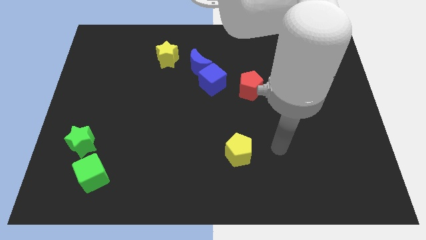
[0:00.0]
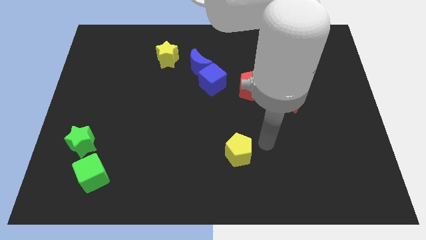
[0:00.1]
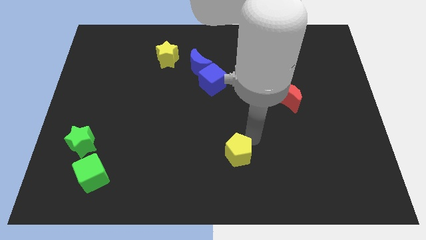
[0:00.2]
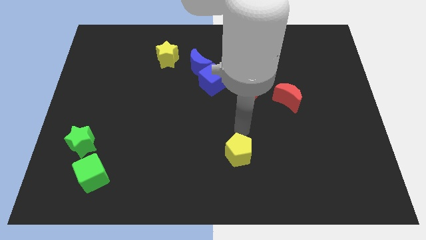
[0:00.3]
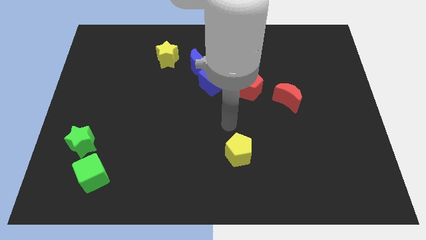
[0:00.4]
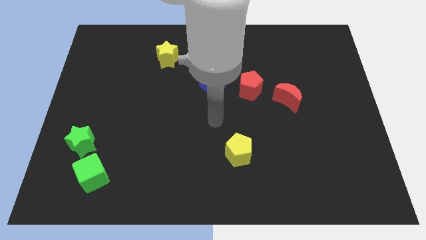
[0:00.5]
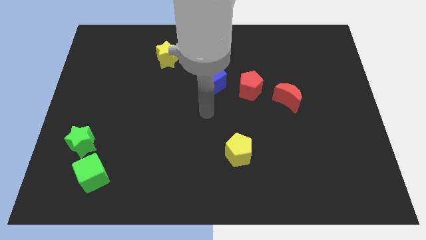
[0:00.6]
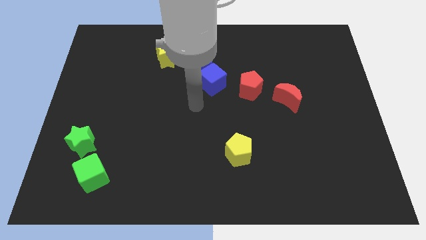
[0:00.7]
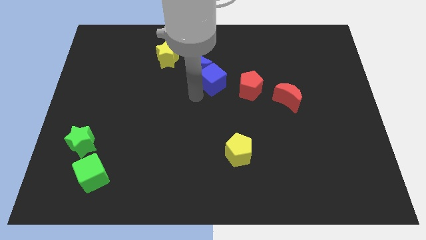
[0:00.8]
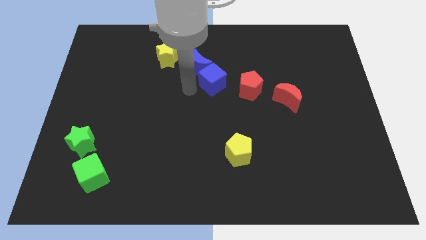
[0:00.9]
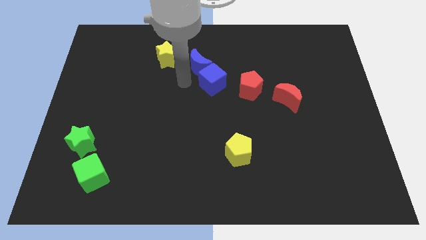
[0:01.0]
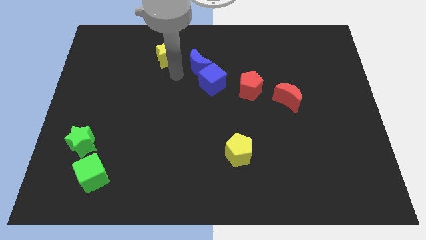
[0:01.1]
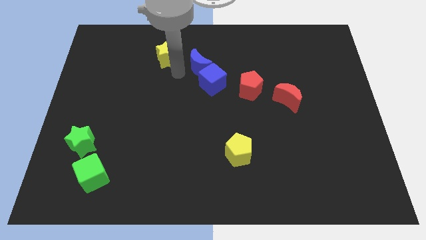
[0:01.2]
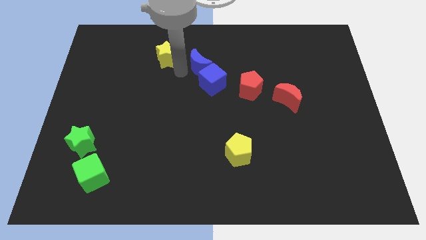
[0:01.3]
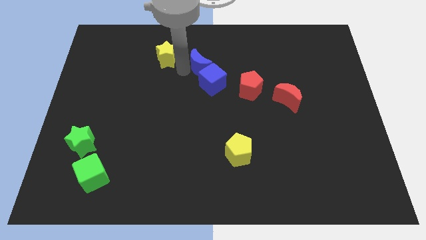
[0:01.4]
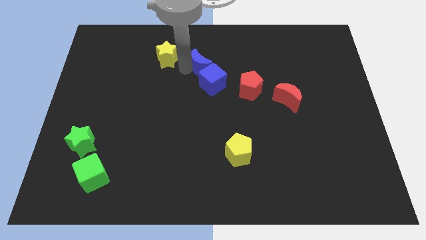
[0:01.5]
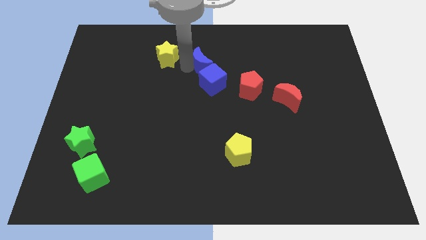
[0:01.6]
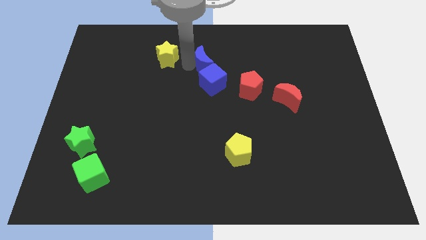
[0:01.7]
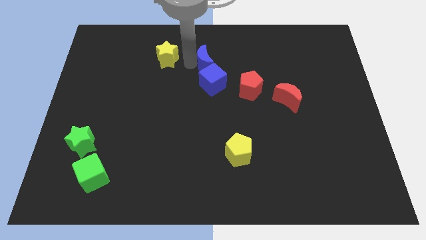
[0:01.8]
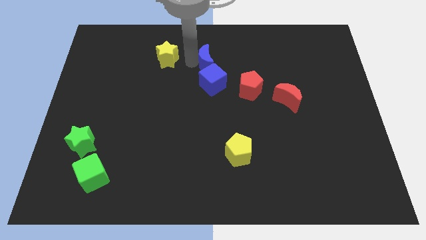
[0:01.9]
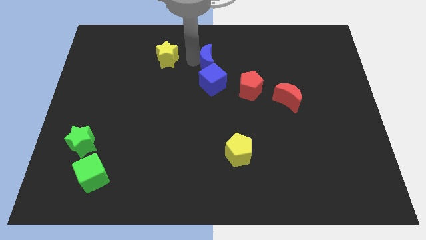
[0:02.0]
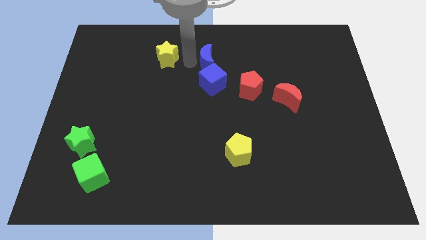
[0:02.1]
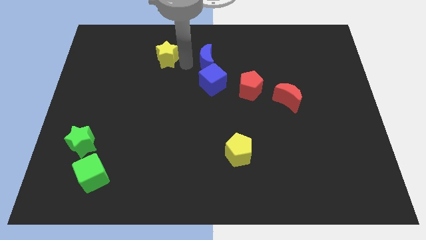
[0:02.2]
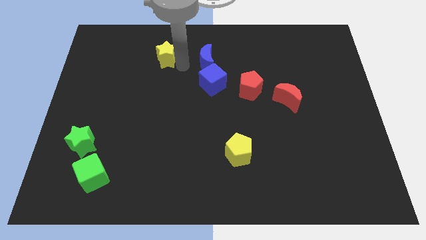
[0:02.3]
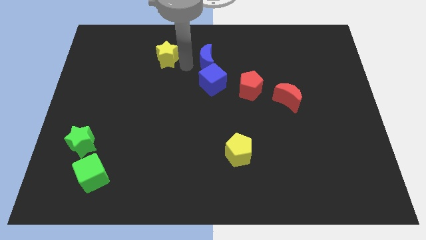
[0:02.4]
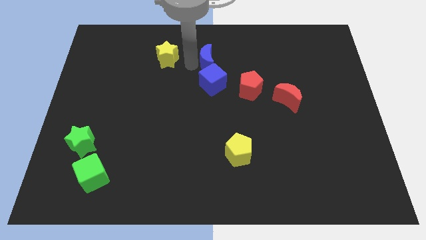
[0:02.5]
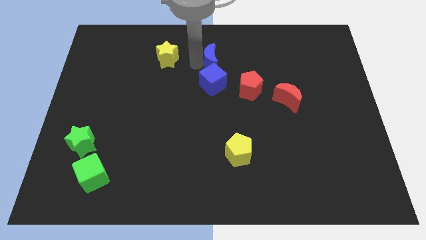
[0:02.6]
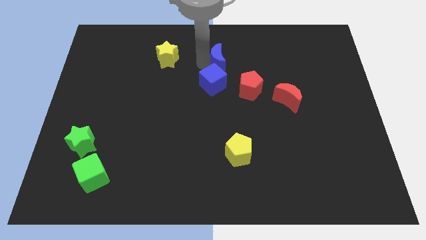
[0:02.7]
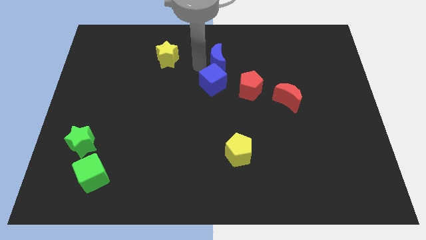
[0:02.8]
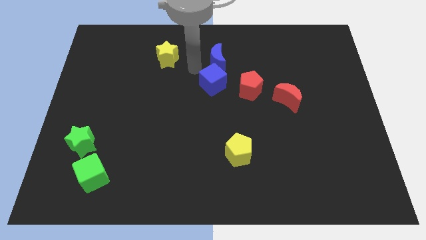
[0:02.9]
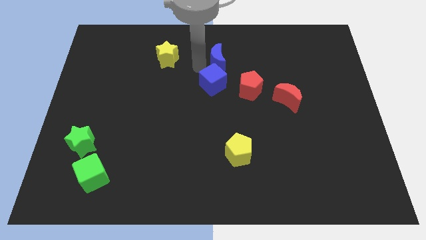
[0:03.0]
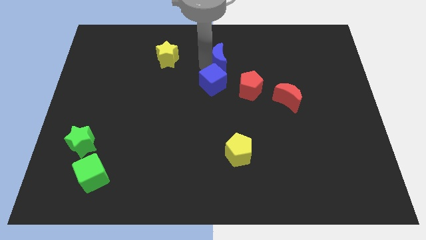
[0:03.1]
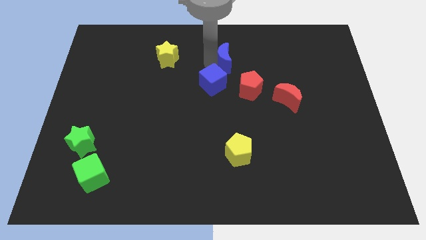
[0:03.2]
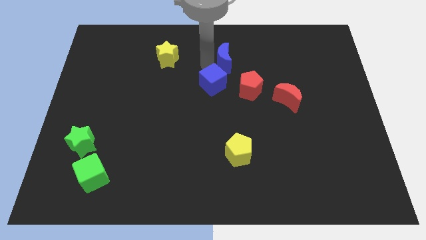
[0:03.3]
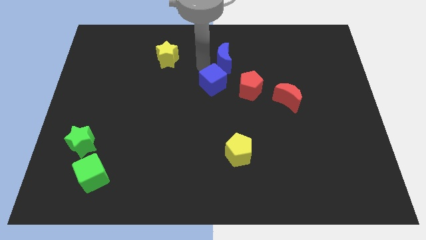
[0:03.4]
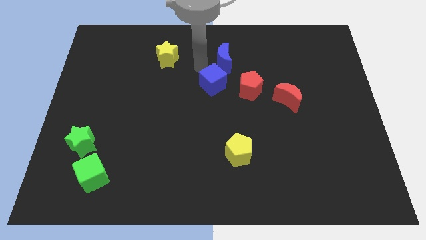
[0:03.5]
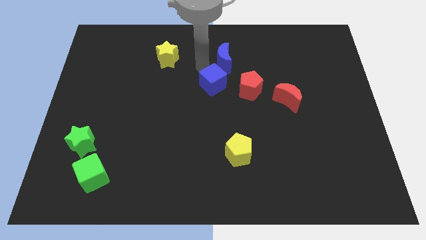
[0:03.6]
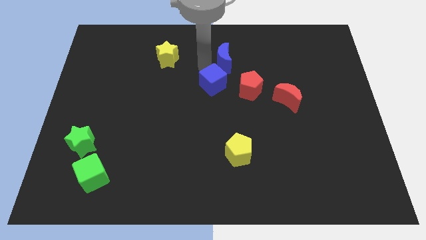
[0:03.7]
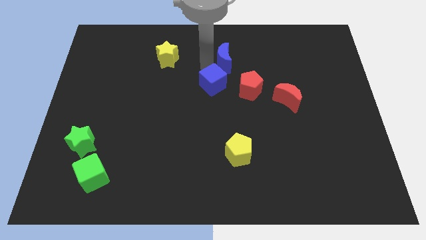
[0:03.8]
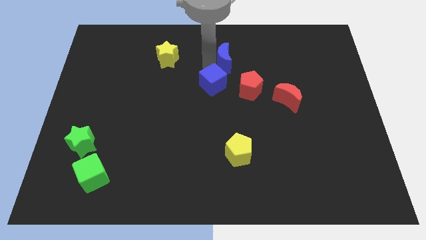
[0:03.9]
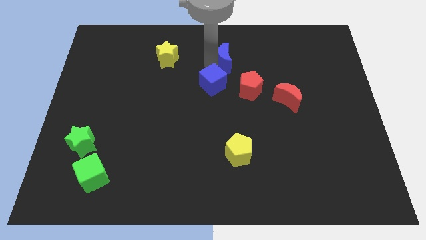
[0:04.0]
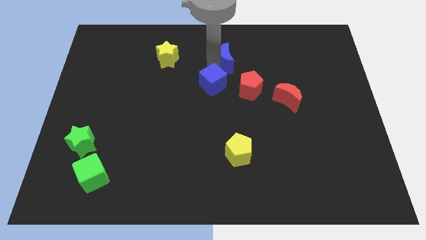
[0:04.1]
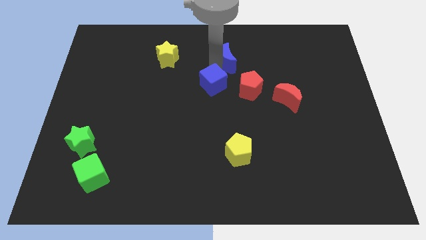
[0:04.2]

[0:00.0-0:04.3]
separate the blue moon from the blue cube and yellow star

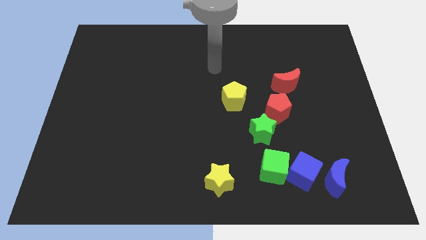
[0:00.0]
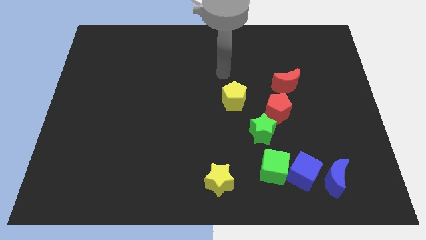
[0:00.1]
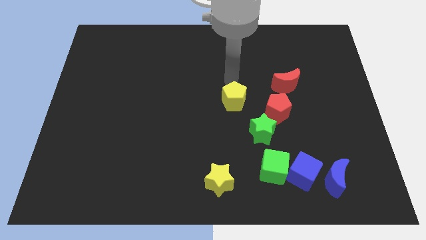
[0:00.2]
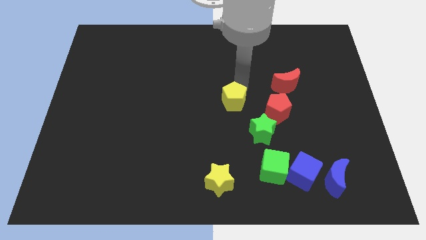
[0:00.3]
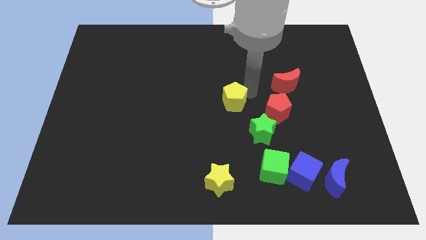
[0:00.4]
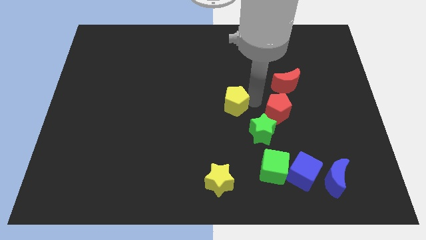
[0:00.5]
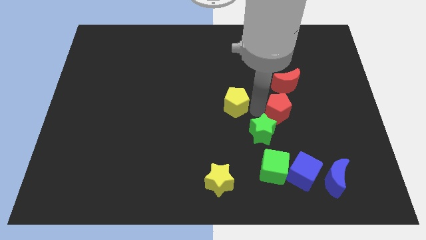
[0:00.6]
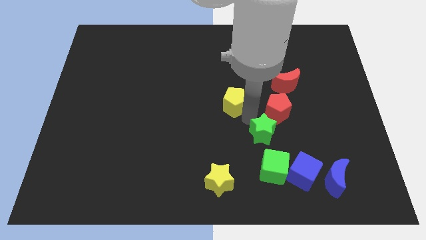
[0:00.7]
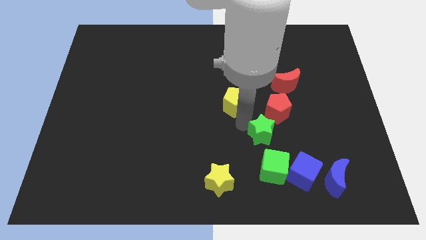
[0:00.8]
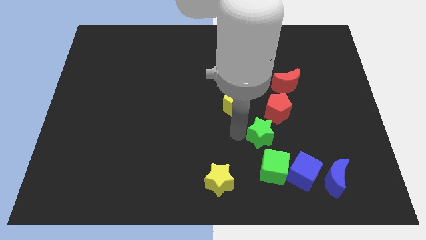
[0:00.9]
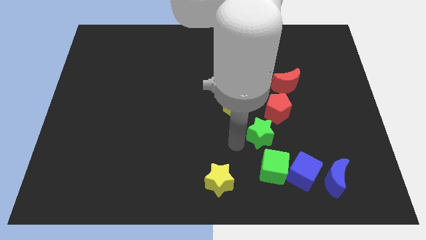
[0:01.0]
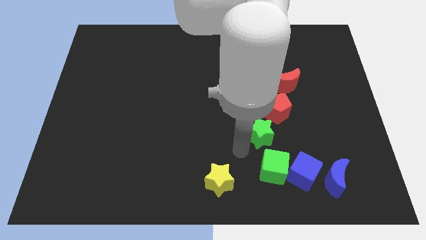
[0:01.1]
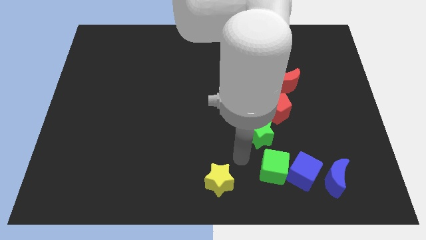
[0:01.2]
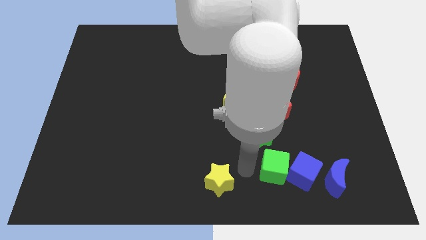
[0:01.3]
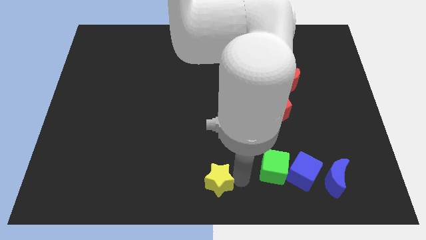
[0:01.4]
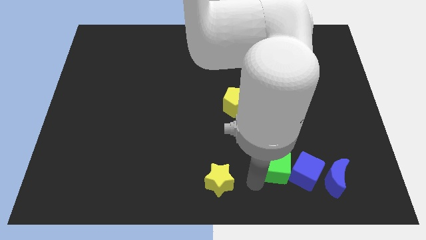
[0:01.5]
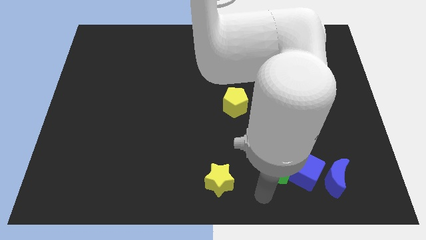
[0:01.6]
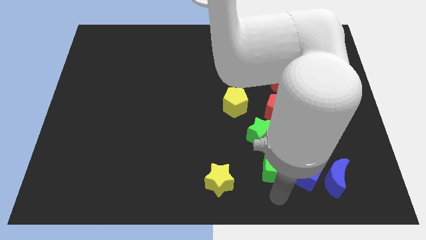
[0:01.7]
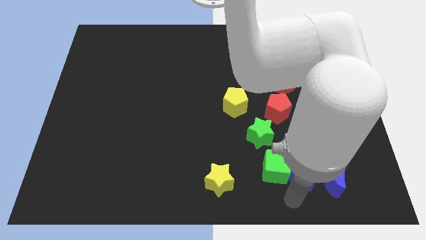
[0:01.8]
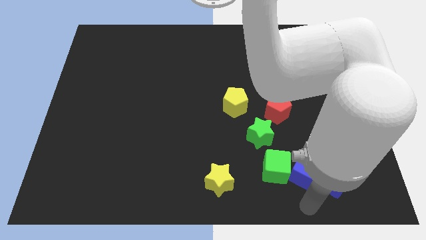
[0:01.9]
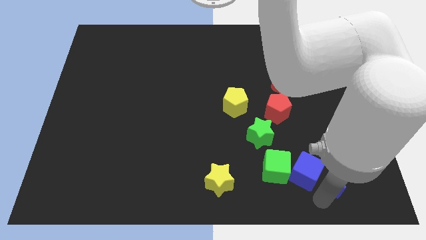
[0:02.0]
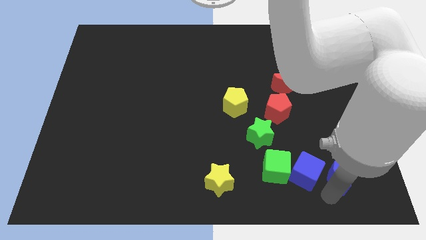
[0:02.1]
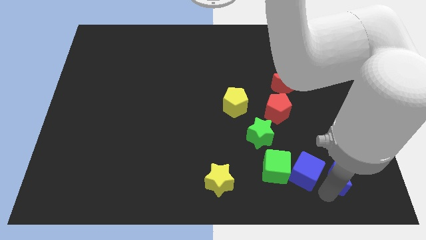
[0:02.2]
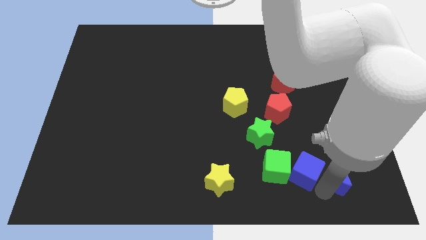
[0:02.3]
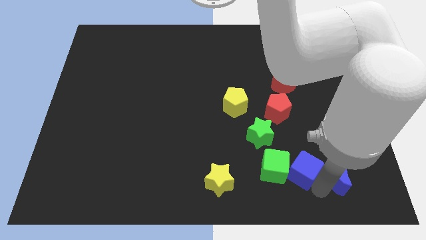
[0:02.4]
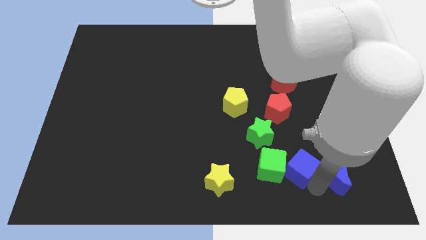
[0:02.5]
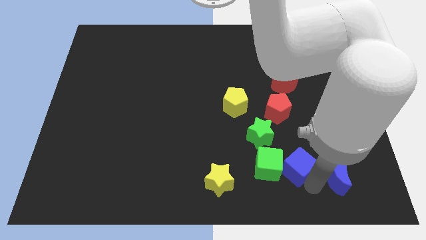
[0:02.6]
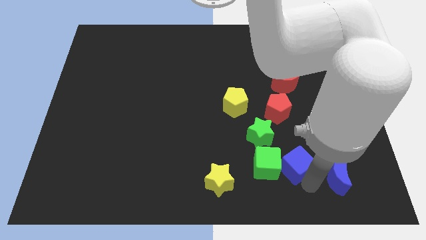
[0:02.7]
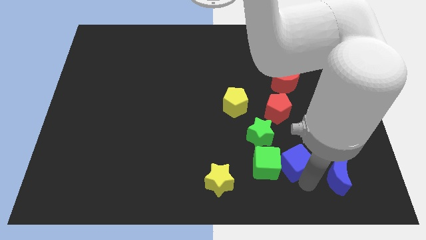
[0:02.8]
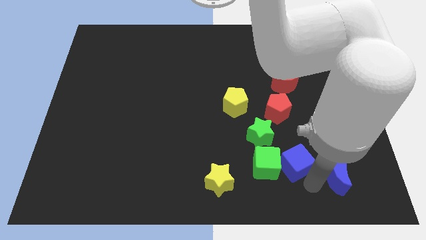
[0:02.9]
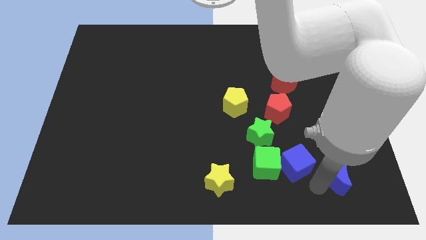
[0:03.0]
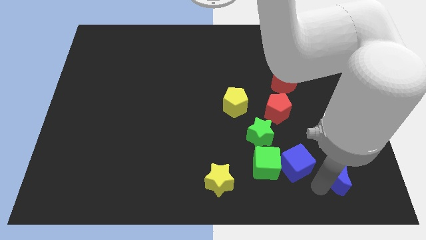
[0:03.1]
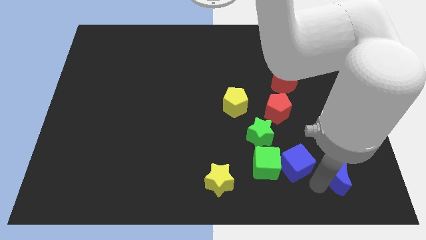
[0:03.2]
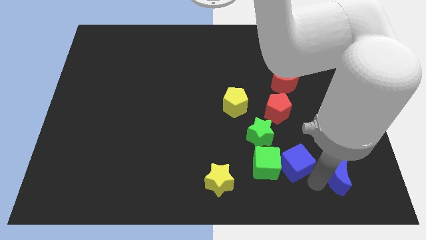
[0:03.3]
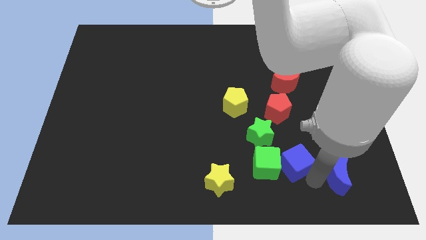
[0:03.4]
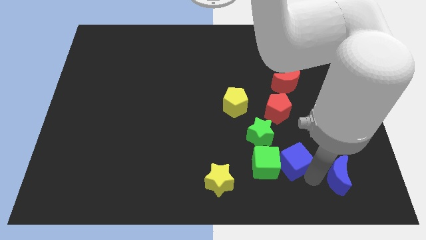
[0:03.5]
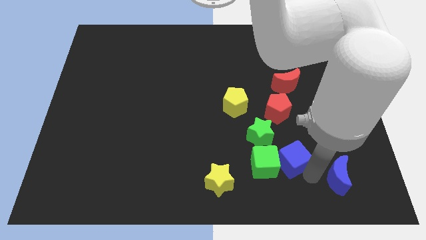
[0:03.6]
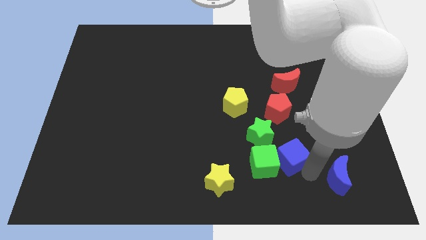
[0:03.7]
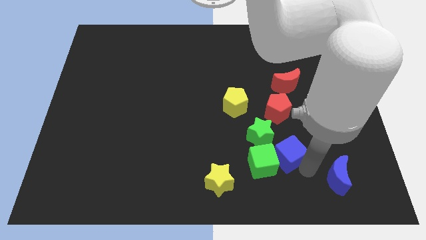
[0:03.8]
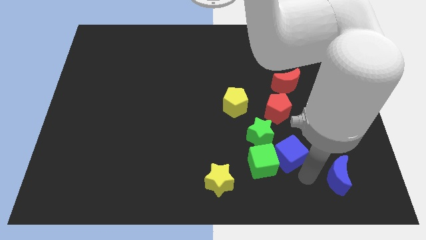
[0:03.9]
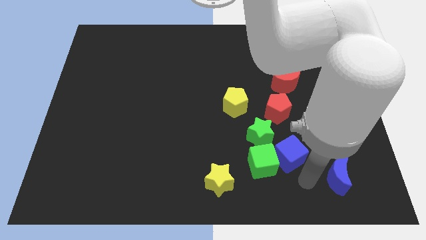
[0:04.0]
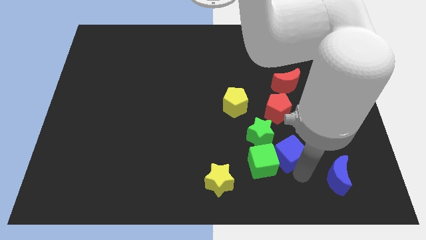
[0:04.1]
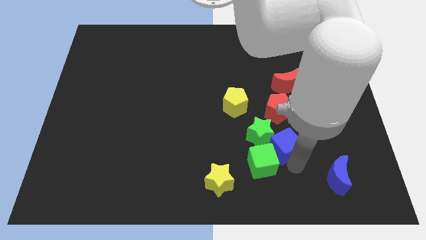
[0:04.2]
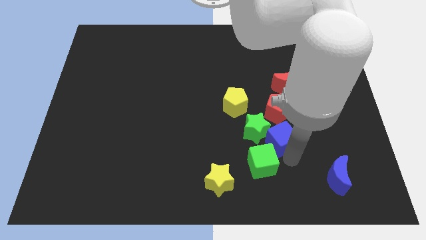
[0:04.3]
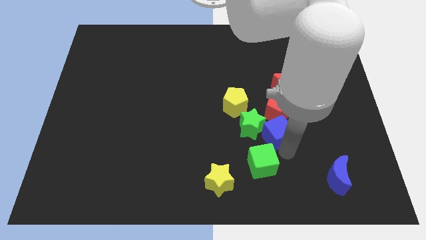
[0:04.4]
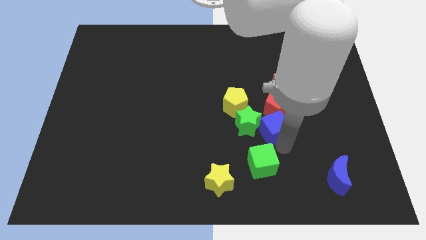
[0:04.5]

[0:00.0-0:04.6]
move the blue cube away from the green cube and blue moon

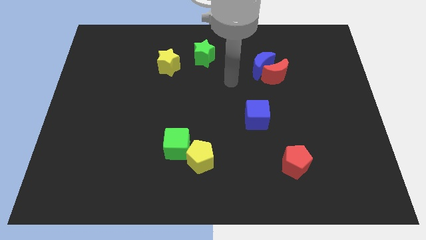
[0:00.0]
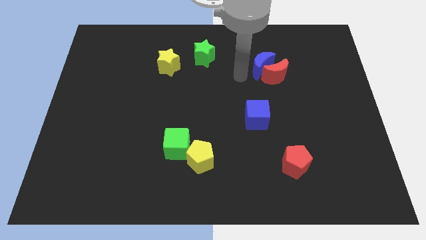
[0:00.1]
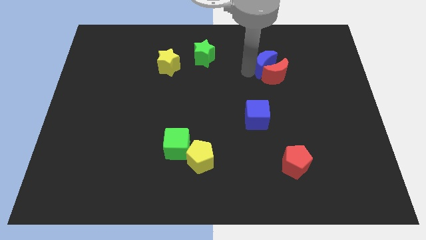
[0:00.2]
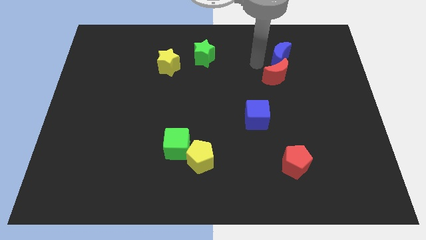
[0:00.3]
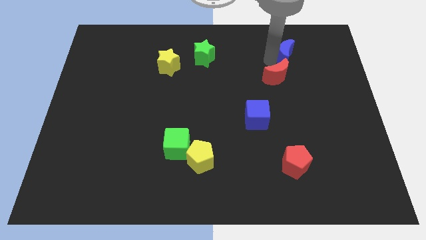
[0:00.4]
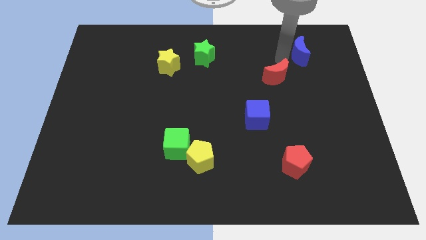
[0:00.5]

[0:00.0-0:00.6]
pull the red moon apart from the blue moon

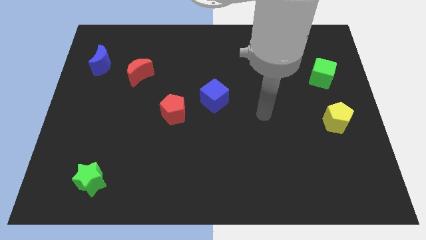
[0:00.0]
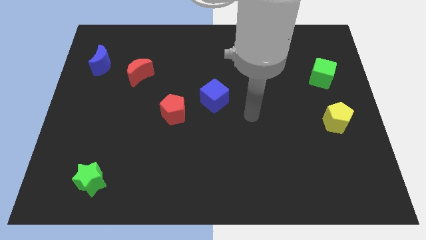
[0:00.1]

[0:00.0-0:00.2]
pull the red pentagon apart from the blue cube
